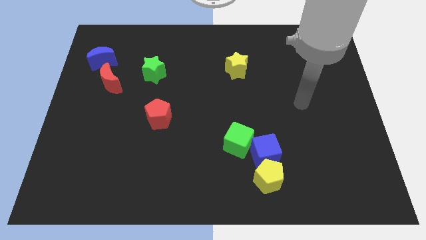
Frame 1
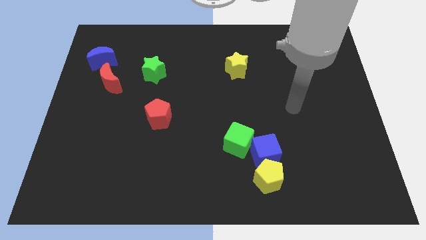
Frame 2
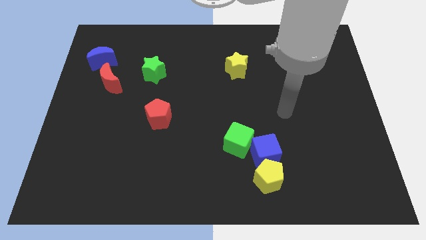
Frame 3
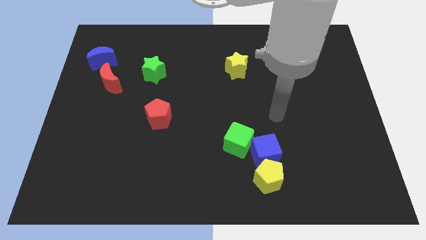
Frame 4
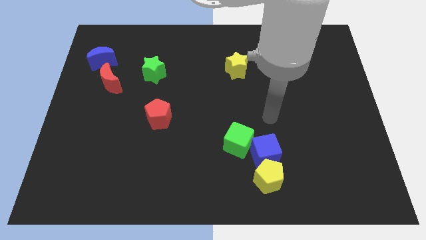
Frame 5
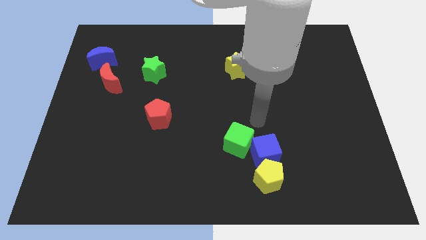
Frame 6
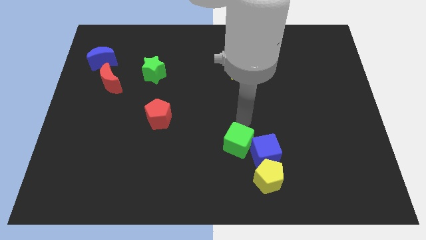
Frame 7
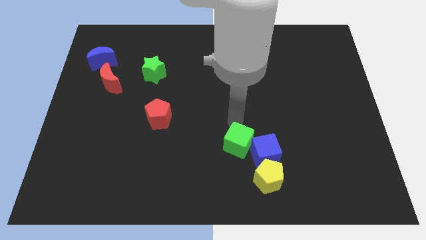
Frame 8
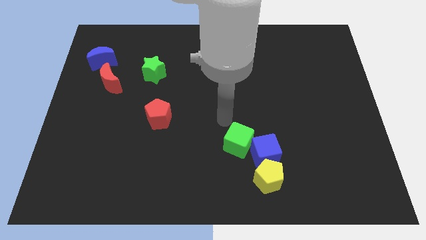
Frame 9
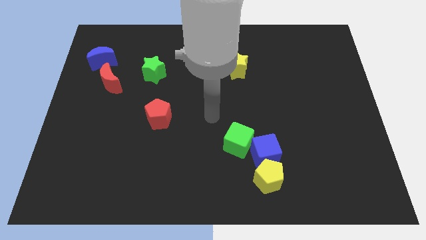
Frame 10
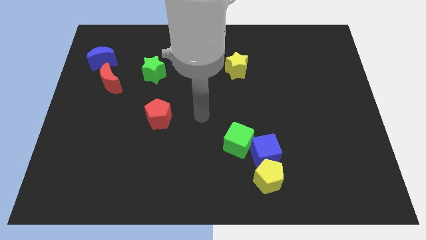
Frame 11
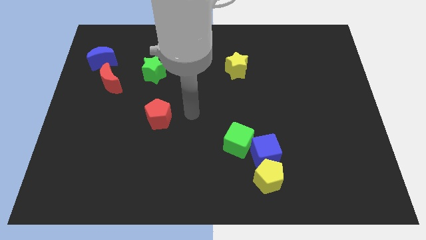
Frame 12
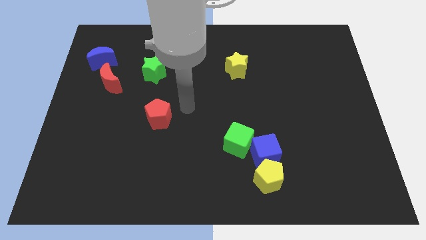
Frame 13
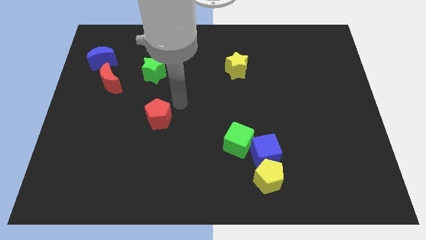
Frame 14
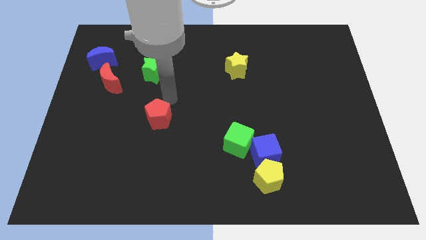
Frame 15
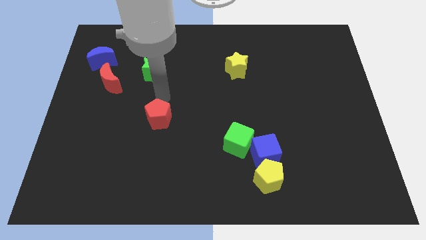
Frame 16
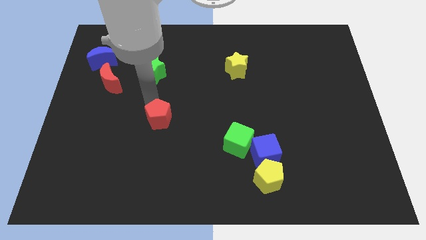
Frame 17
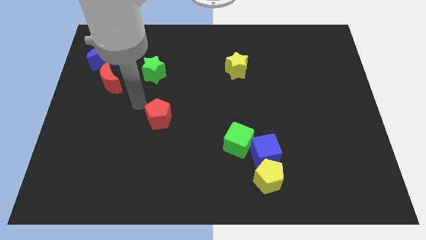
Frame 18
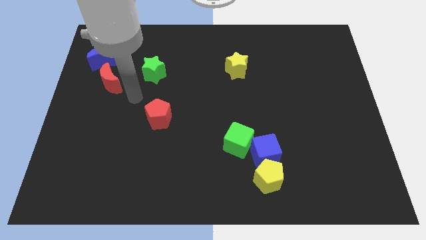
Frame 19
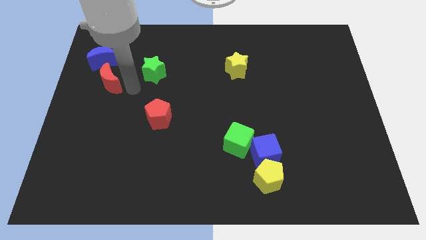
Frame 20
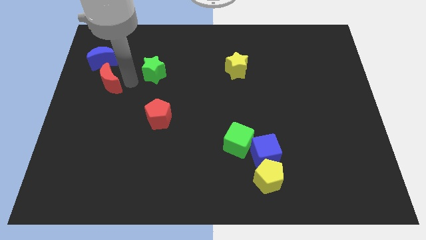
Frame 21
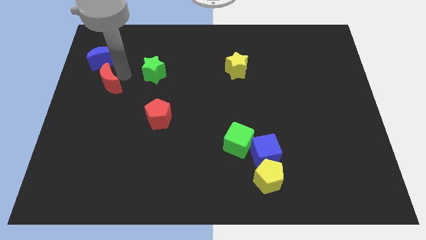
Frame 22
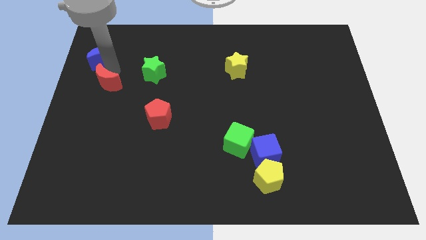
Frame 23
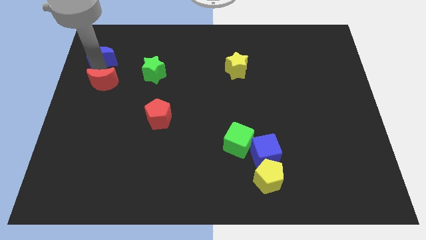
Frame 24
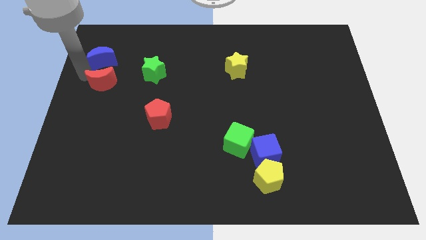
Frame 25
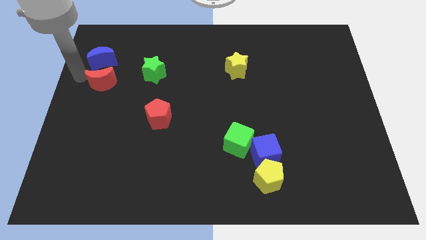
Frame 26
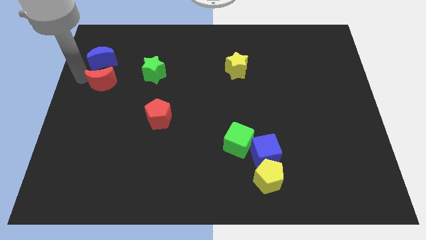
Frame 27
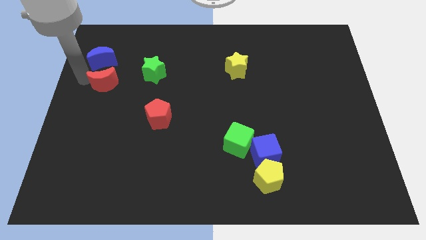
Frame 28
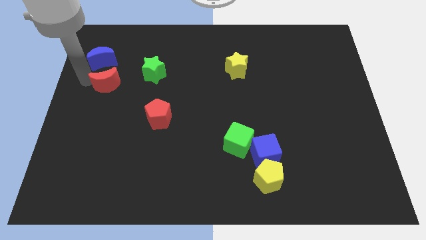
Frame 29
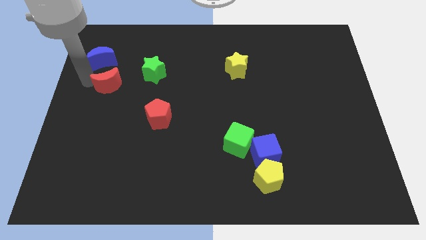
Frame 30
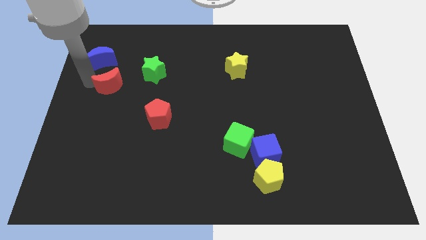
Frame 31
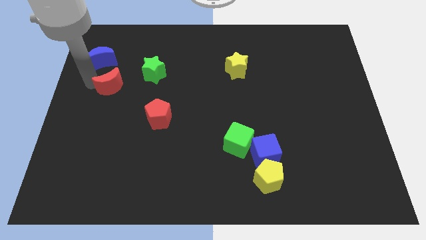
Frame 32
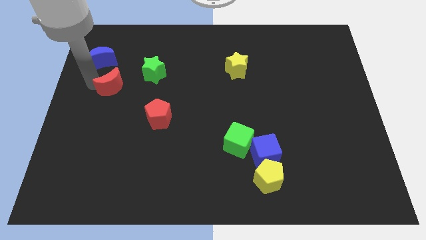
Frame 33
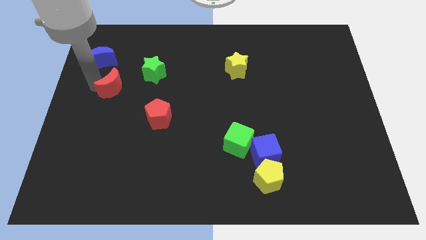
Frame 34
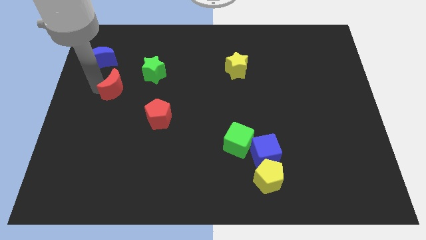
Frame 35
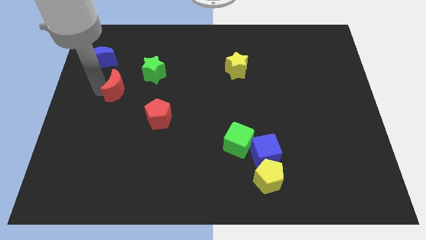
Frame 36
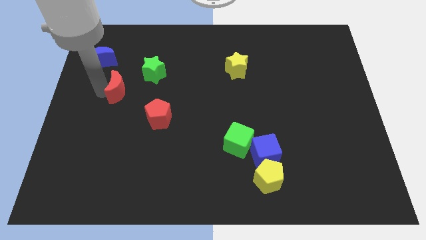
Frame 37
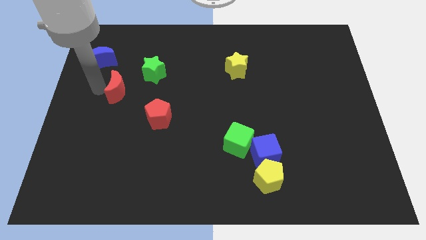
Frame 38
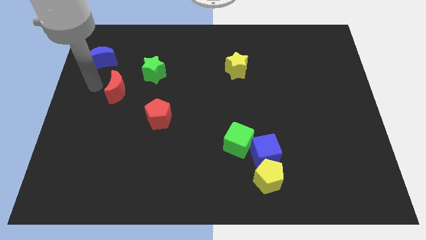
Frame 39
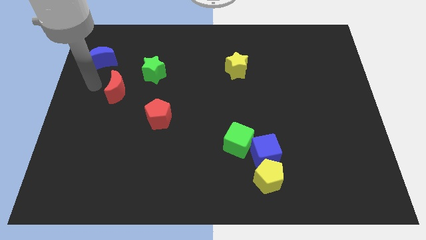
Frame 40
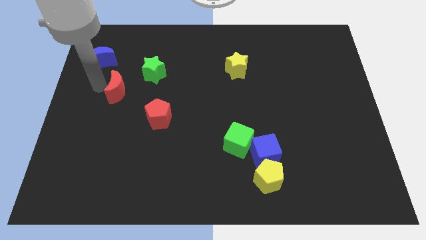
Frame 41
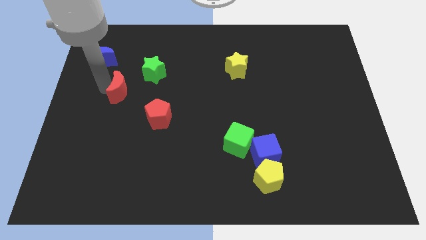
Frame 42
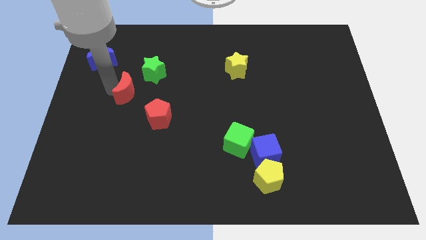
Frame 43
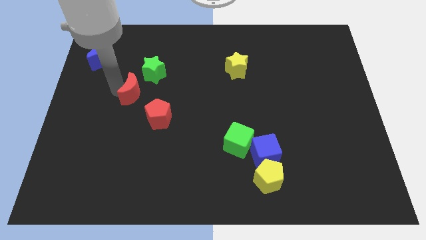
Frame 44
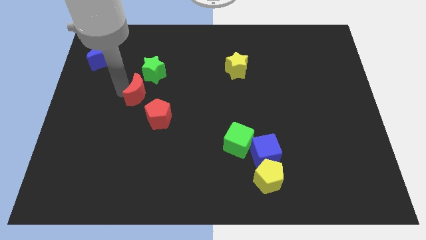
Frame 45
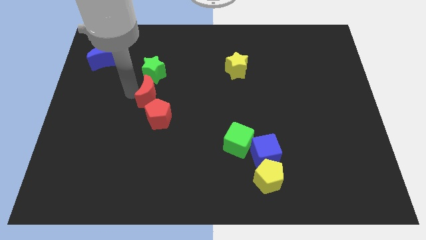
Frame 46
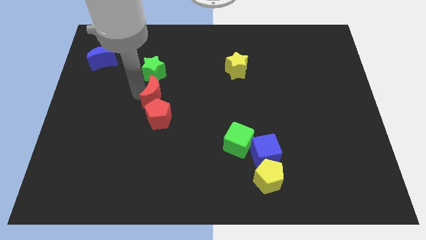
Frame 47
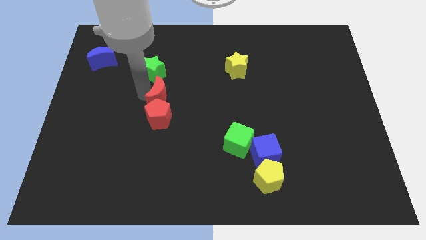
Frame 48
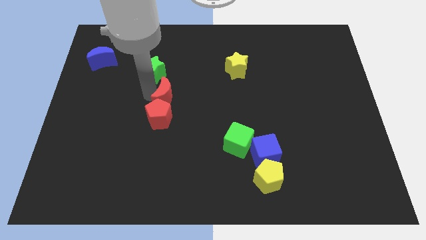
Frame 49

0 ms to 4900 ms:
move the red moon to the middle

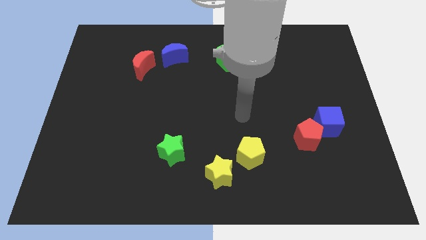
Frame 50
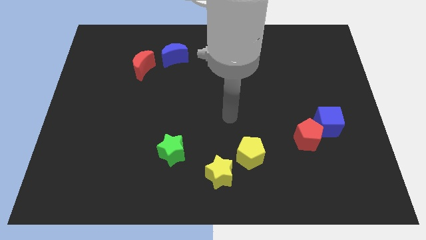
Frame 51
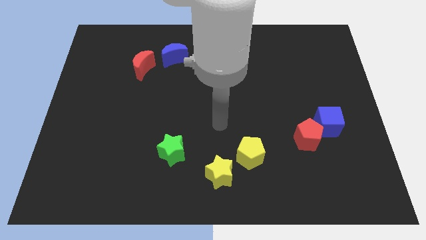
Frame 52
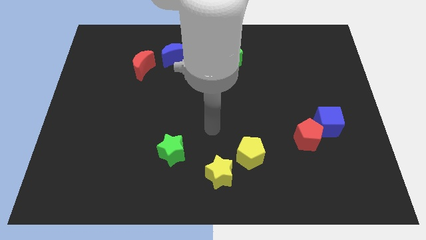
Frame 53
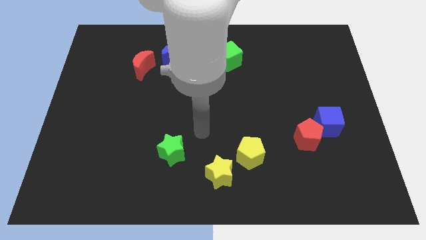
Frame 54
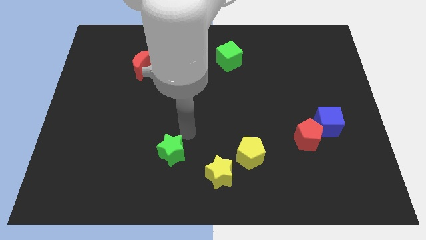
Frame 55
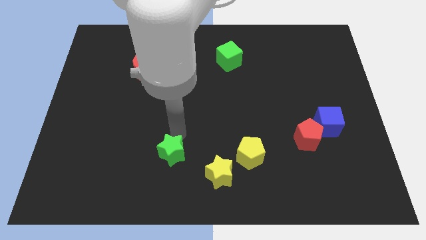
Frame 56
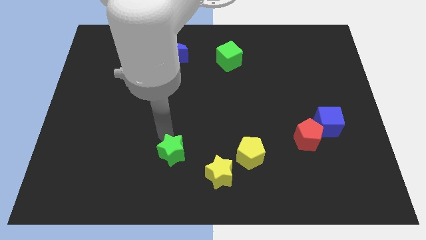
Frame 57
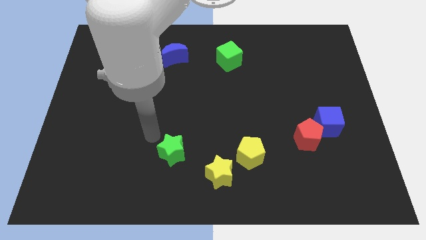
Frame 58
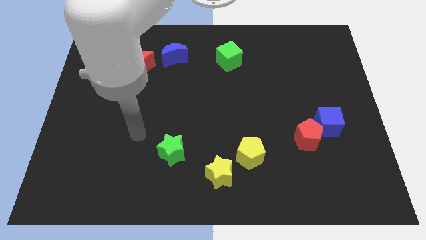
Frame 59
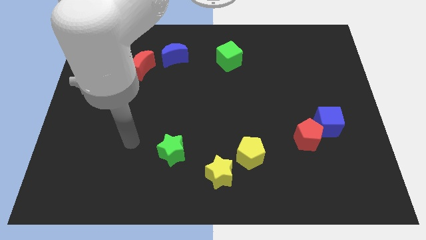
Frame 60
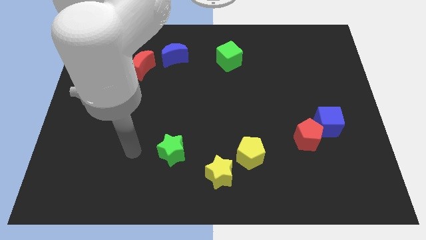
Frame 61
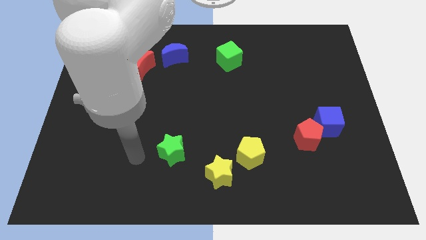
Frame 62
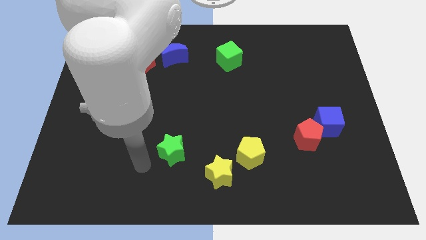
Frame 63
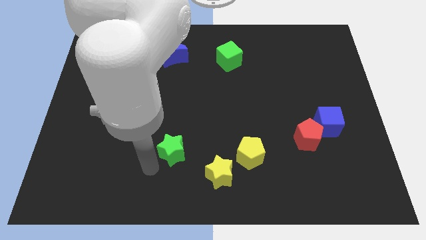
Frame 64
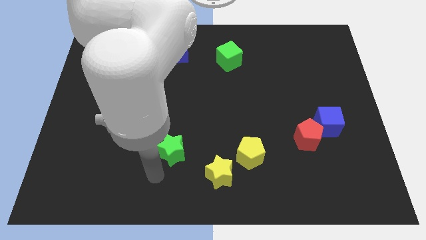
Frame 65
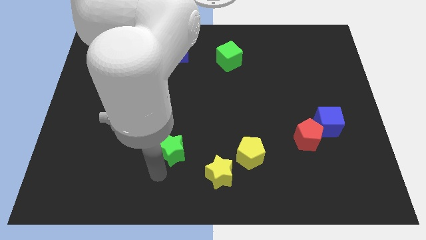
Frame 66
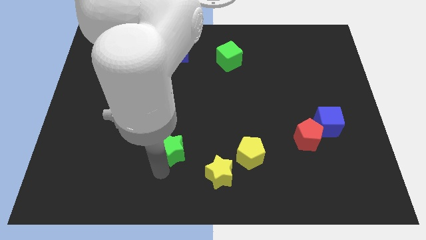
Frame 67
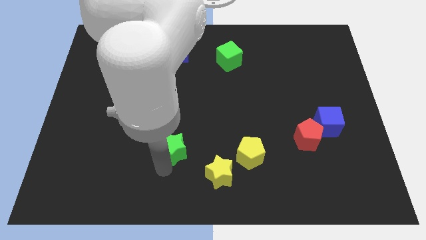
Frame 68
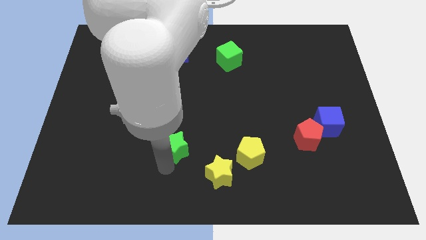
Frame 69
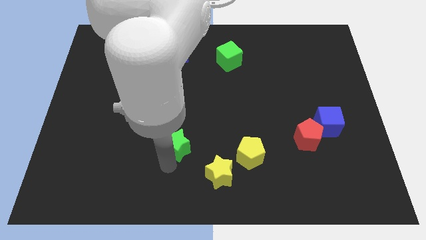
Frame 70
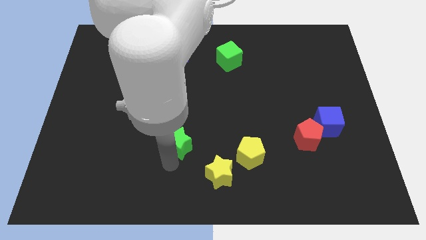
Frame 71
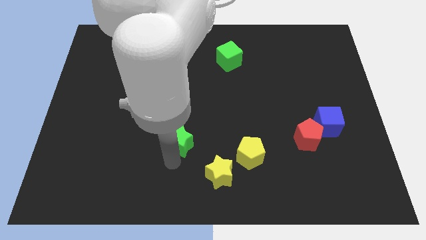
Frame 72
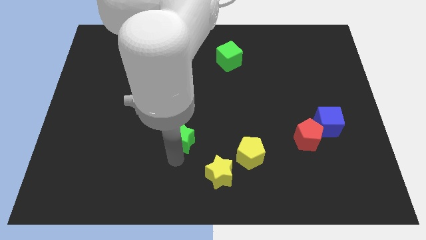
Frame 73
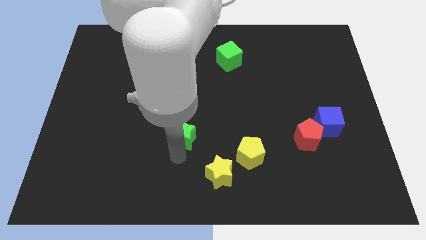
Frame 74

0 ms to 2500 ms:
push the green star to the middle

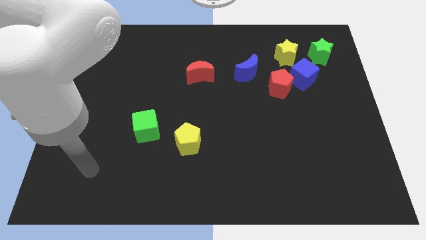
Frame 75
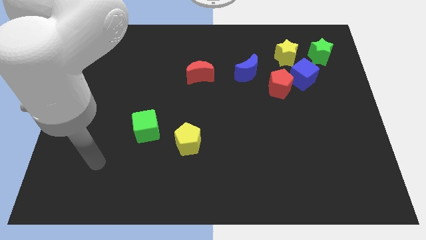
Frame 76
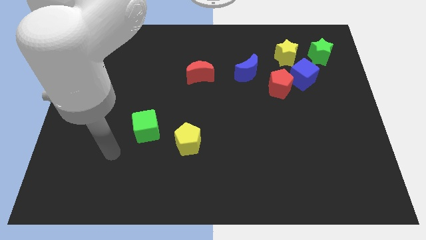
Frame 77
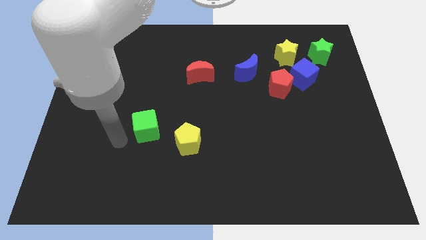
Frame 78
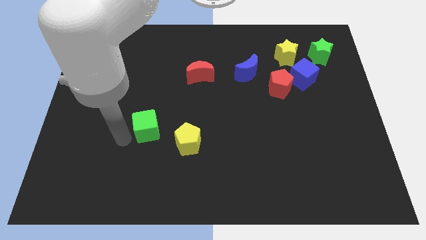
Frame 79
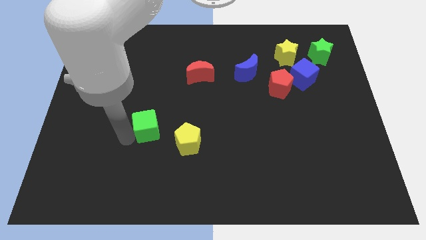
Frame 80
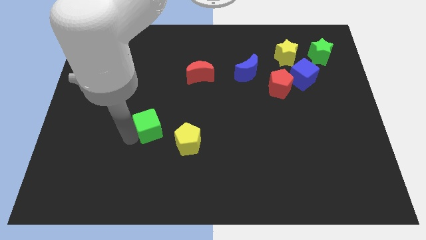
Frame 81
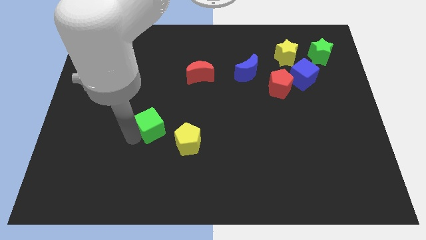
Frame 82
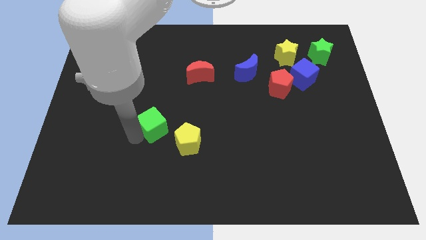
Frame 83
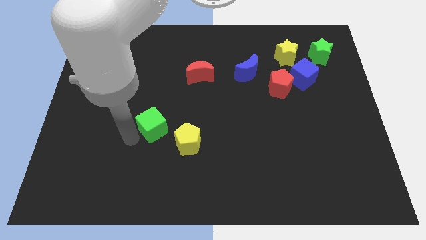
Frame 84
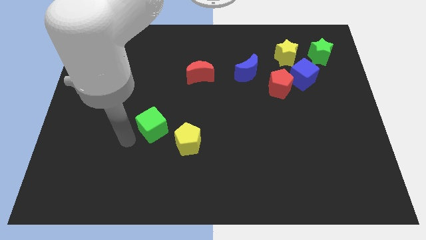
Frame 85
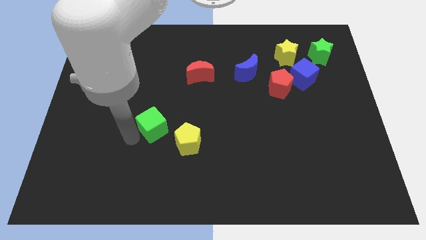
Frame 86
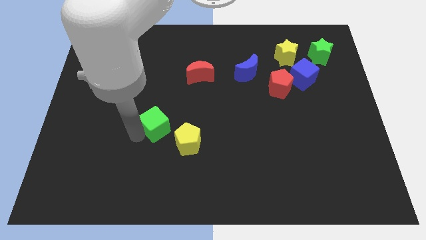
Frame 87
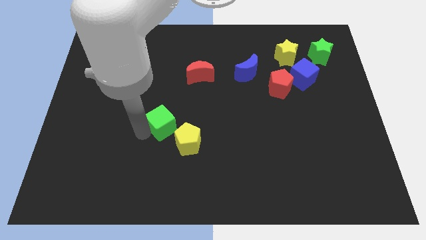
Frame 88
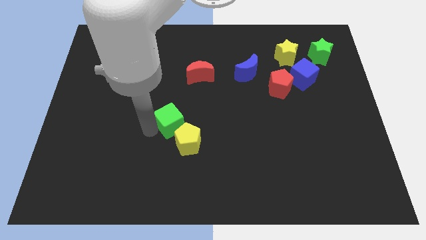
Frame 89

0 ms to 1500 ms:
slide the green cube to the middle of the board
